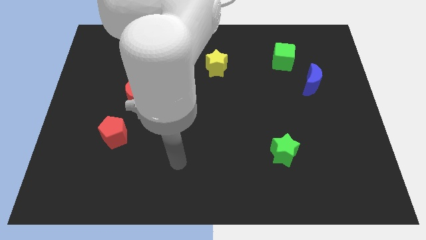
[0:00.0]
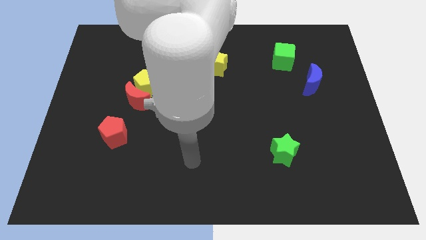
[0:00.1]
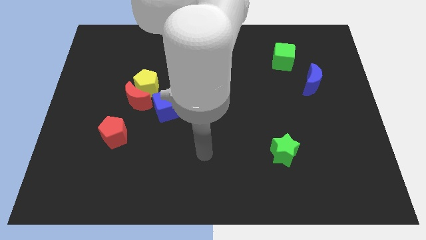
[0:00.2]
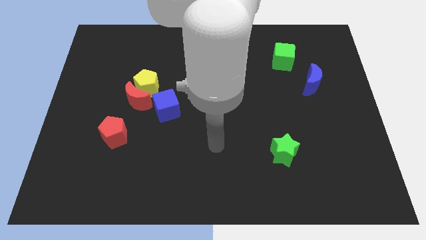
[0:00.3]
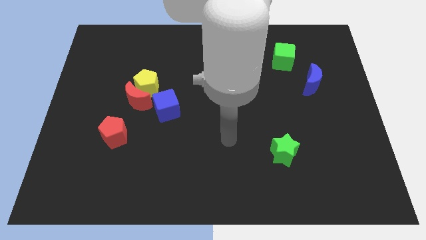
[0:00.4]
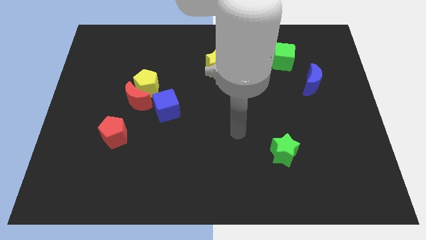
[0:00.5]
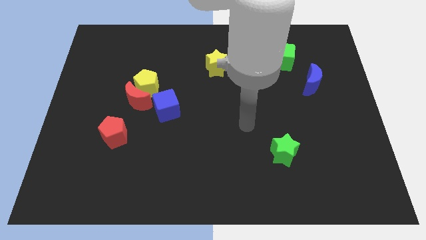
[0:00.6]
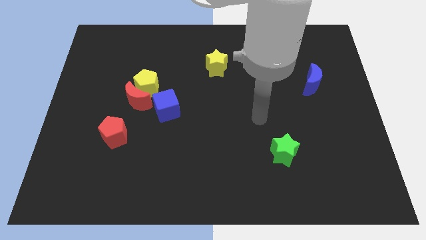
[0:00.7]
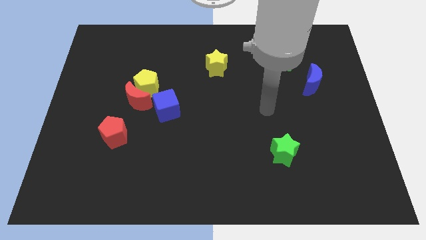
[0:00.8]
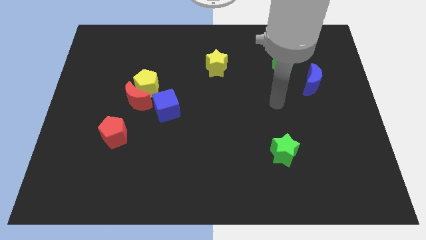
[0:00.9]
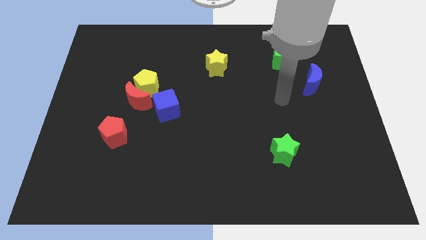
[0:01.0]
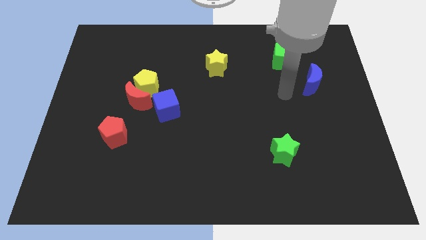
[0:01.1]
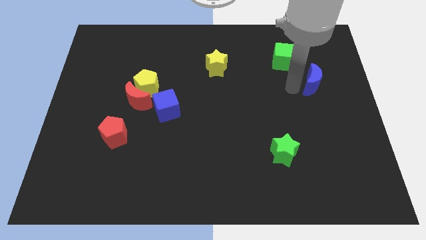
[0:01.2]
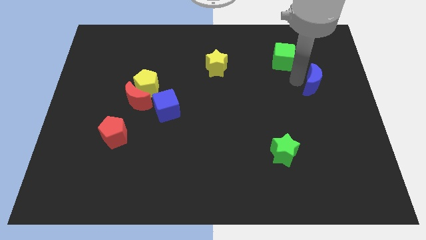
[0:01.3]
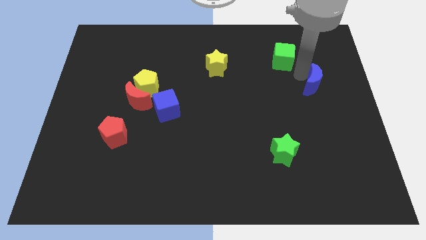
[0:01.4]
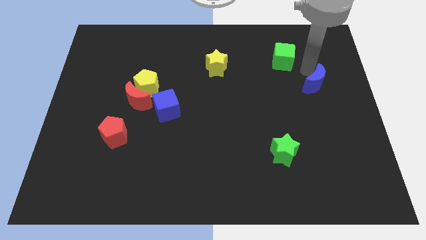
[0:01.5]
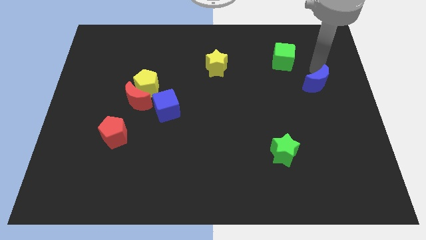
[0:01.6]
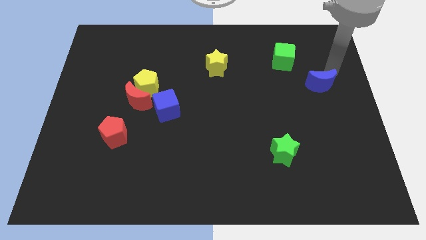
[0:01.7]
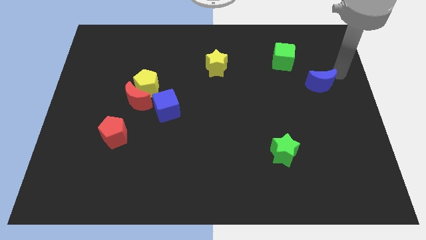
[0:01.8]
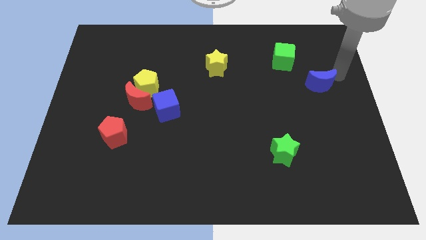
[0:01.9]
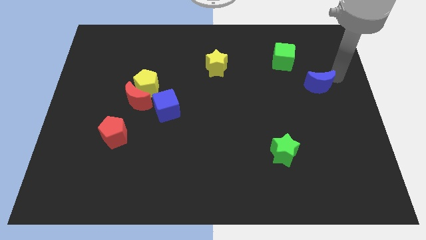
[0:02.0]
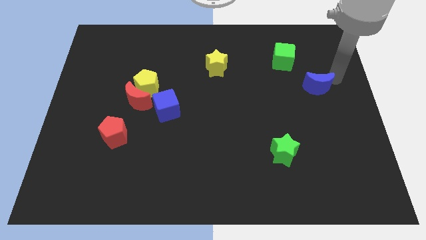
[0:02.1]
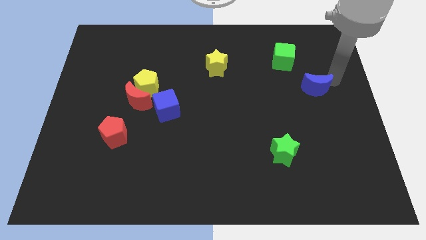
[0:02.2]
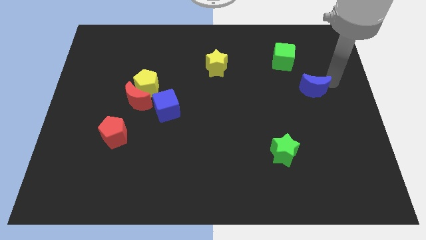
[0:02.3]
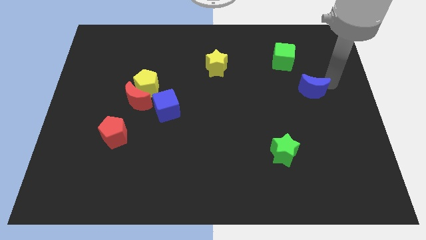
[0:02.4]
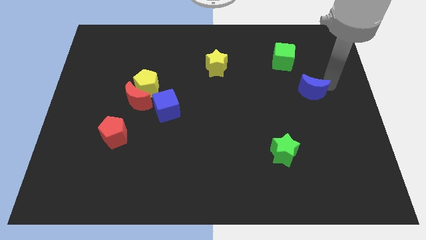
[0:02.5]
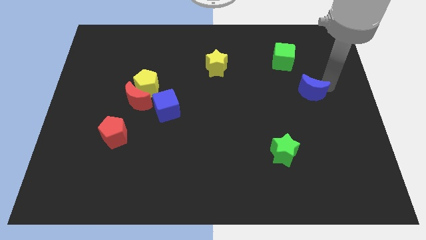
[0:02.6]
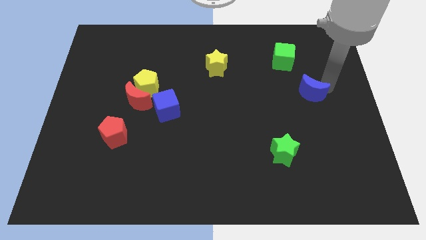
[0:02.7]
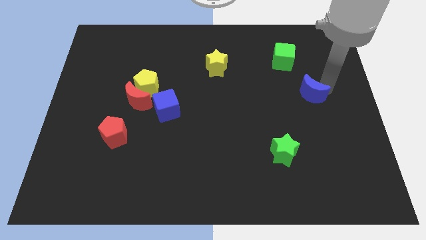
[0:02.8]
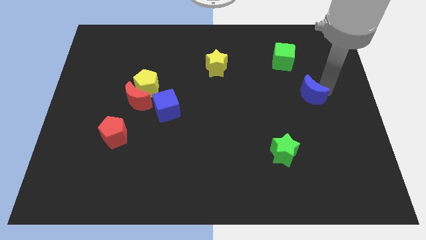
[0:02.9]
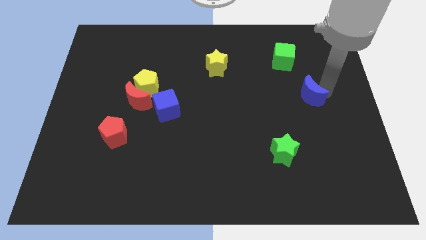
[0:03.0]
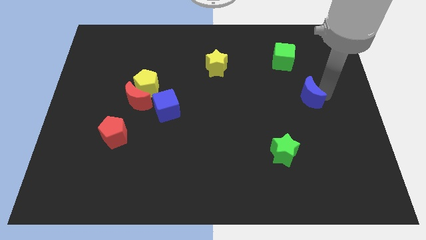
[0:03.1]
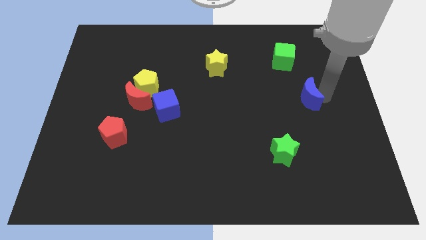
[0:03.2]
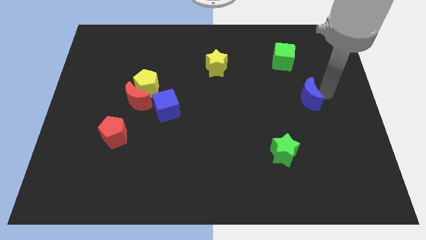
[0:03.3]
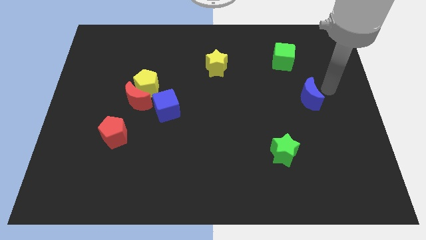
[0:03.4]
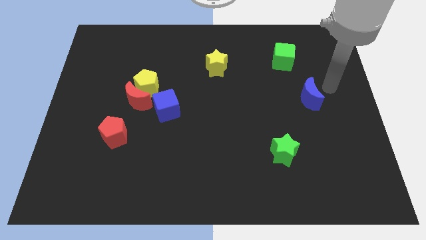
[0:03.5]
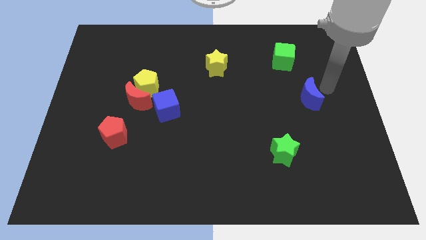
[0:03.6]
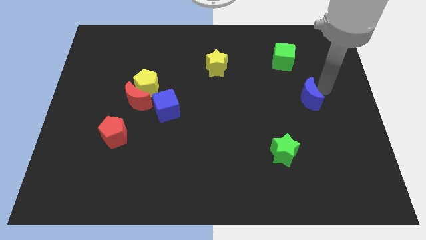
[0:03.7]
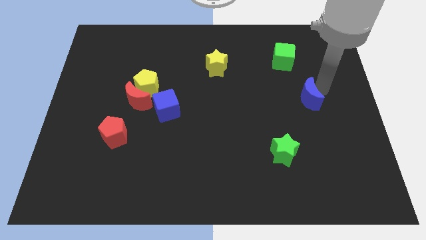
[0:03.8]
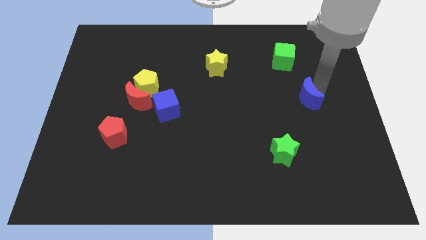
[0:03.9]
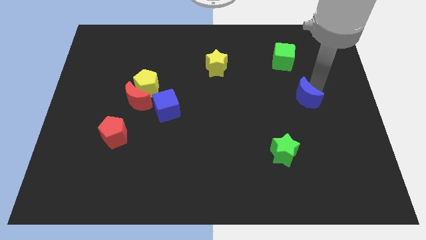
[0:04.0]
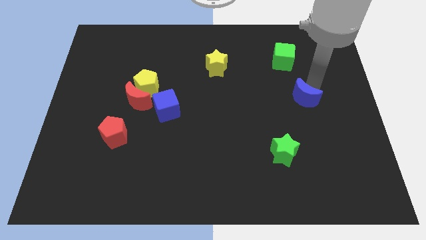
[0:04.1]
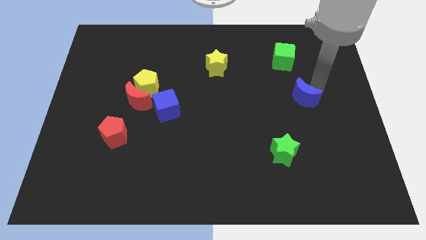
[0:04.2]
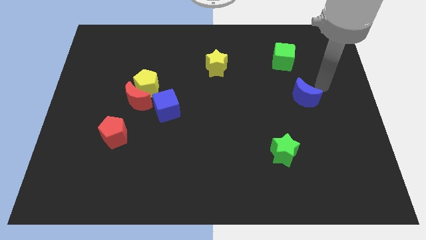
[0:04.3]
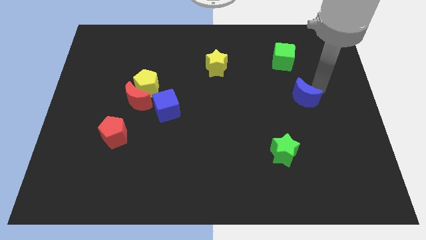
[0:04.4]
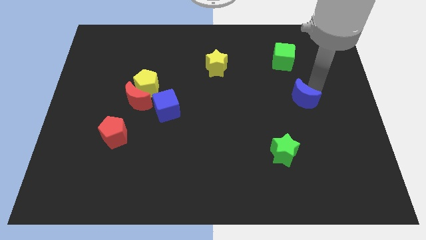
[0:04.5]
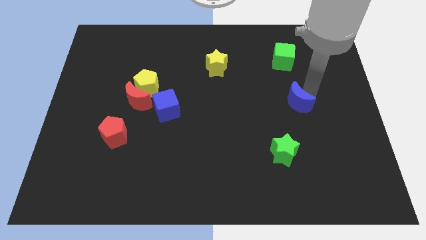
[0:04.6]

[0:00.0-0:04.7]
slightly push the blue moon down and left diagonally

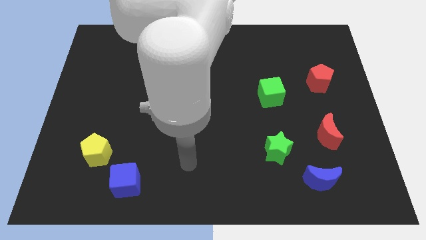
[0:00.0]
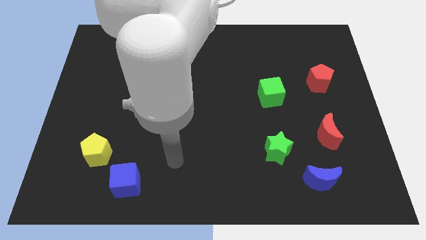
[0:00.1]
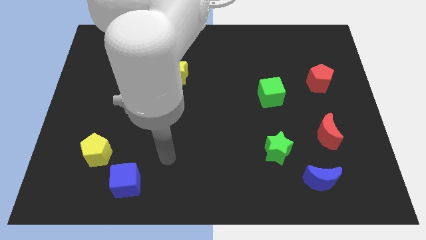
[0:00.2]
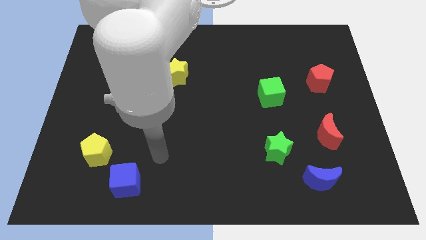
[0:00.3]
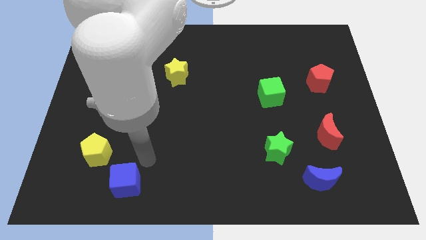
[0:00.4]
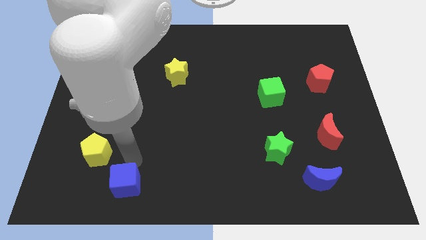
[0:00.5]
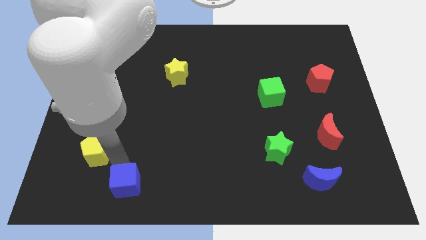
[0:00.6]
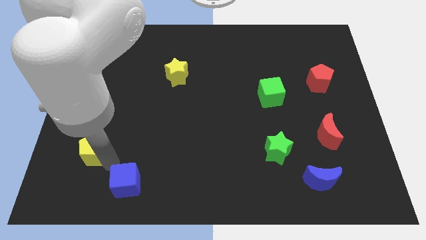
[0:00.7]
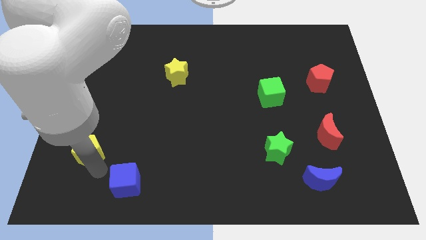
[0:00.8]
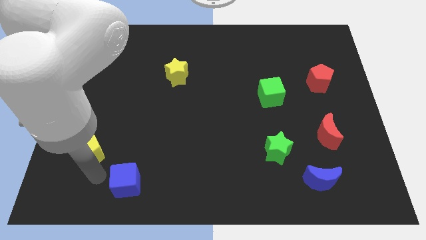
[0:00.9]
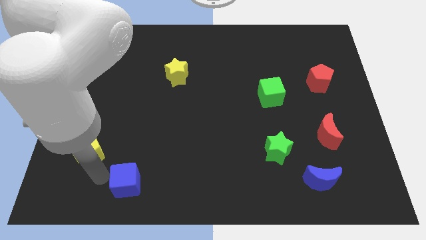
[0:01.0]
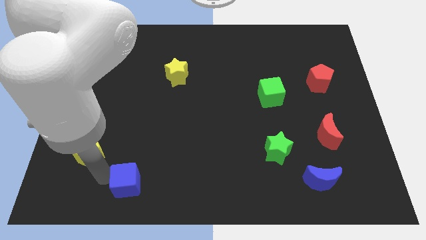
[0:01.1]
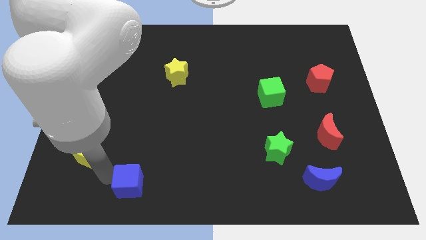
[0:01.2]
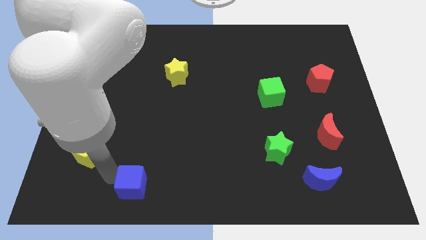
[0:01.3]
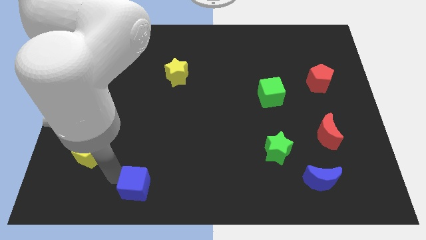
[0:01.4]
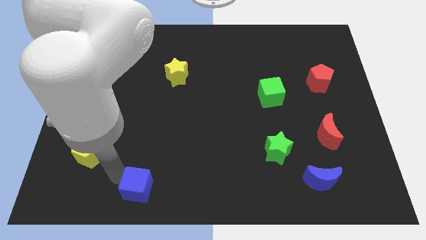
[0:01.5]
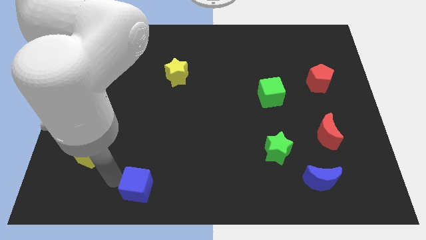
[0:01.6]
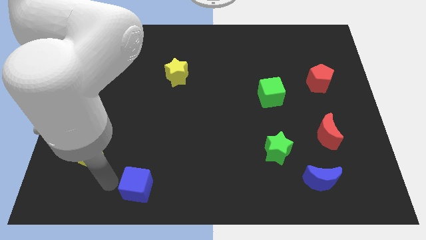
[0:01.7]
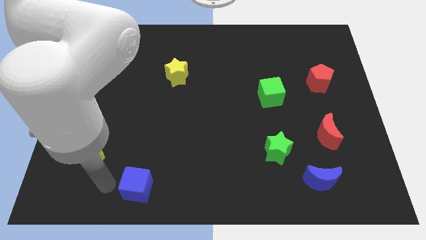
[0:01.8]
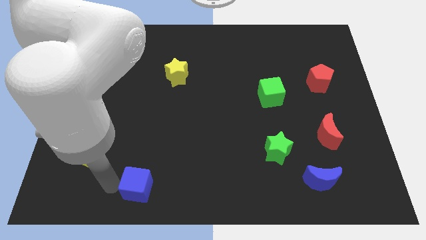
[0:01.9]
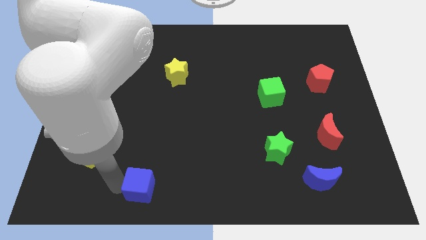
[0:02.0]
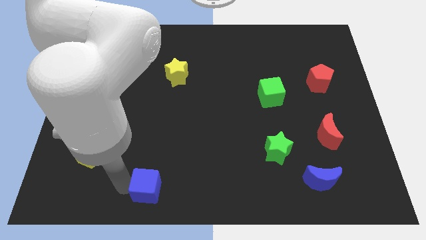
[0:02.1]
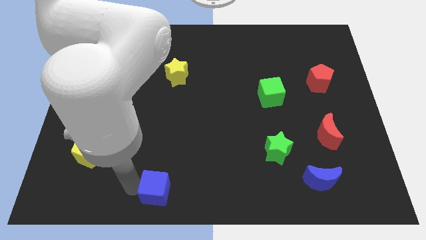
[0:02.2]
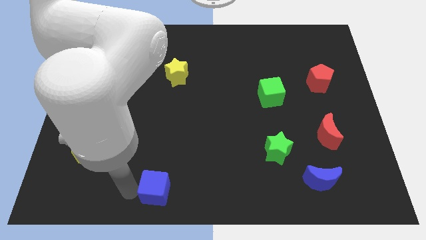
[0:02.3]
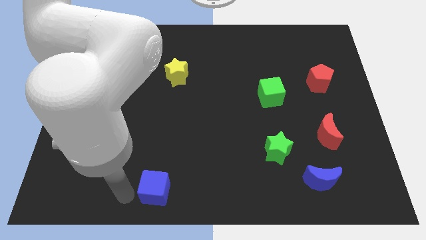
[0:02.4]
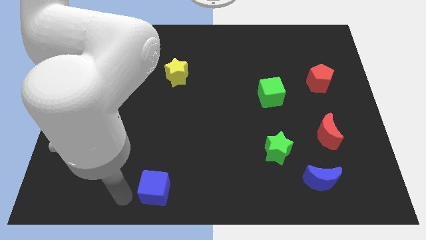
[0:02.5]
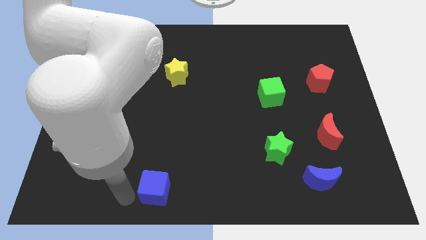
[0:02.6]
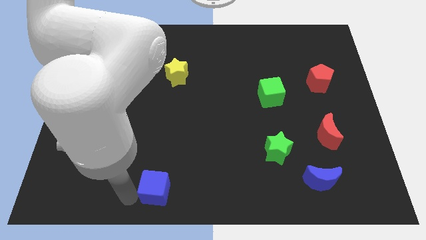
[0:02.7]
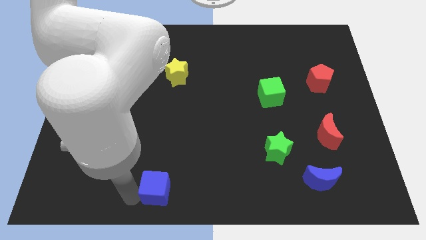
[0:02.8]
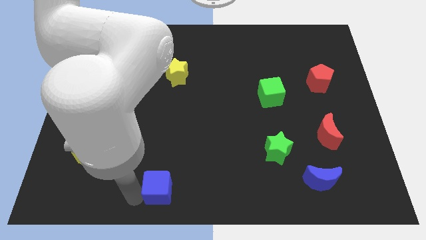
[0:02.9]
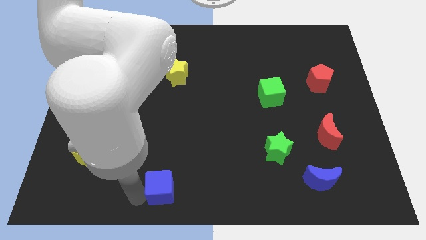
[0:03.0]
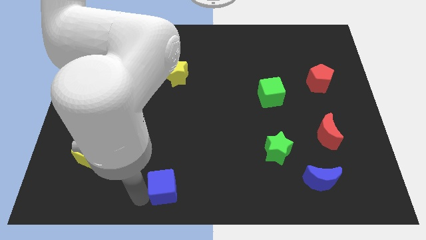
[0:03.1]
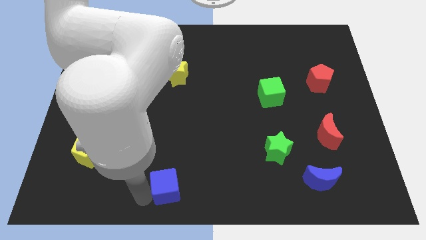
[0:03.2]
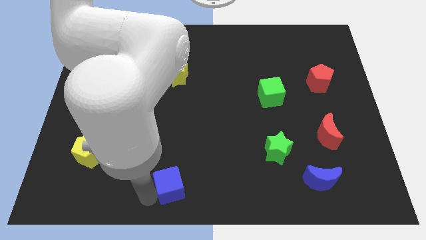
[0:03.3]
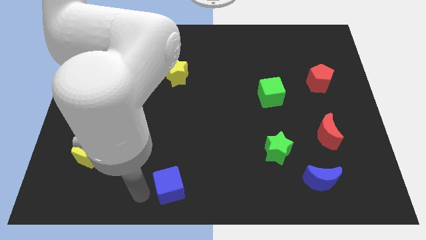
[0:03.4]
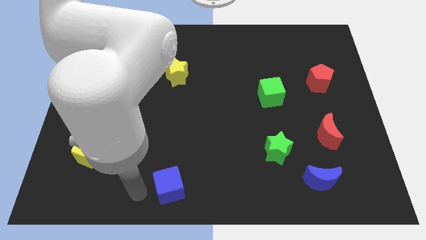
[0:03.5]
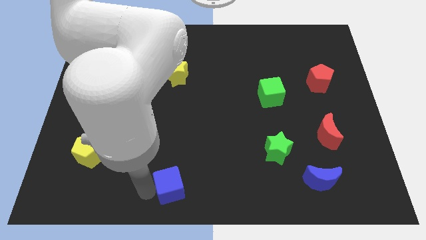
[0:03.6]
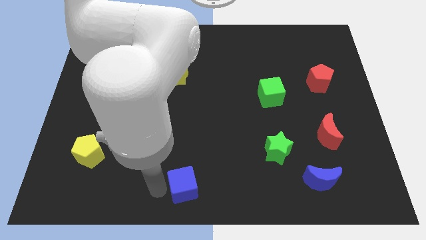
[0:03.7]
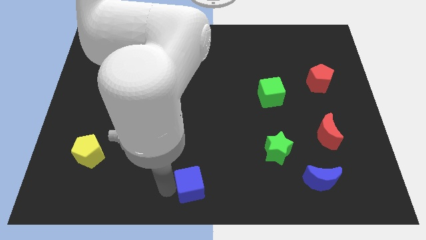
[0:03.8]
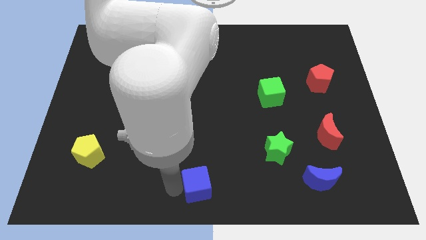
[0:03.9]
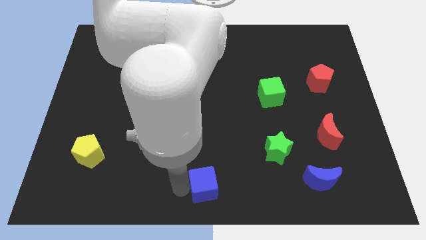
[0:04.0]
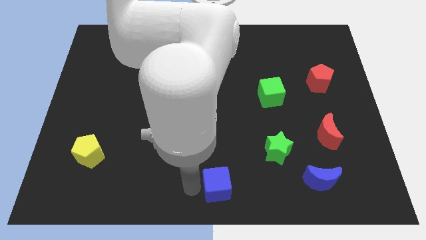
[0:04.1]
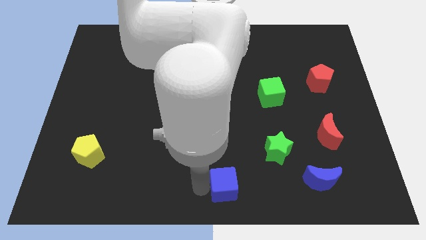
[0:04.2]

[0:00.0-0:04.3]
move the blue cube to the right
